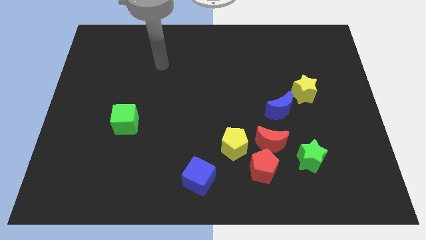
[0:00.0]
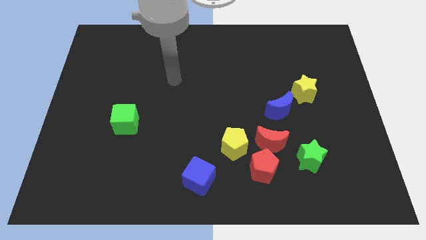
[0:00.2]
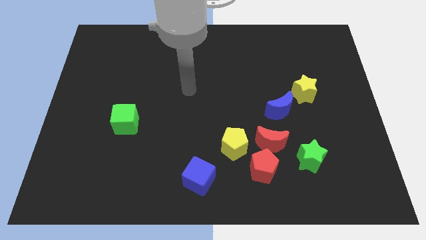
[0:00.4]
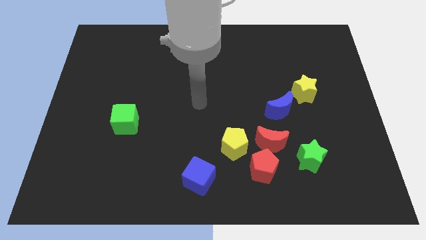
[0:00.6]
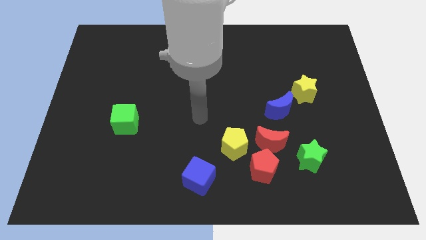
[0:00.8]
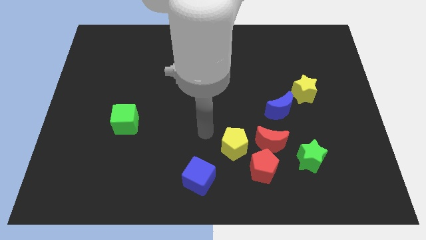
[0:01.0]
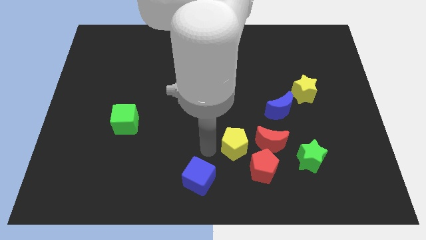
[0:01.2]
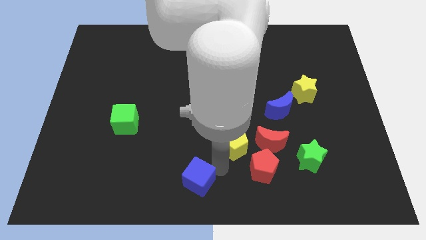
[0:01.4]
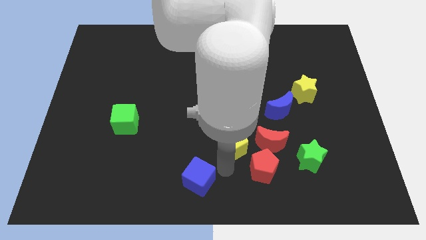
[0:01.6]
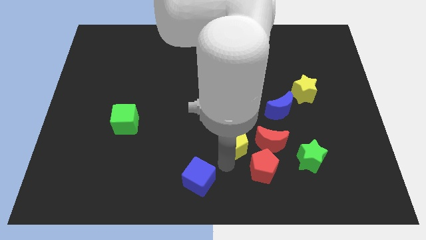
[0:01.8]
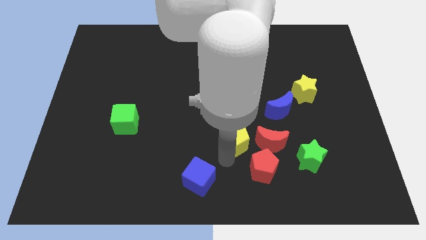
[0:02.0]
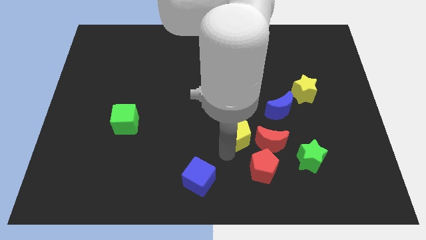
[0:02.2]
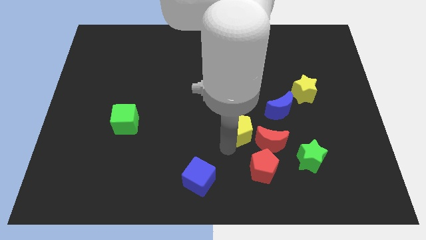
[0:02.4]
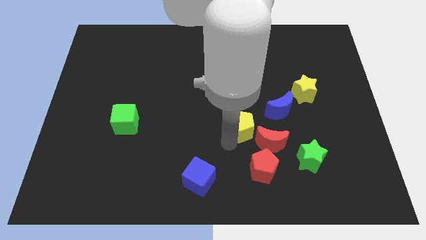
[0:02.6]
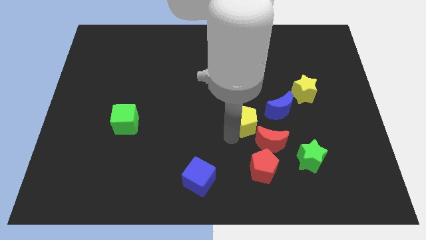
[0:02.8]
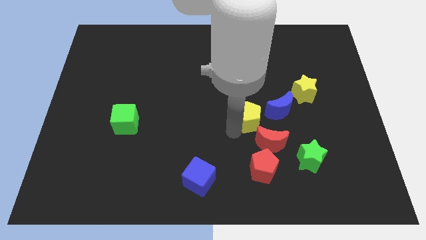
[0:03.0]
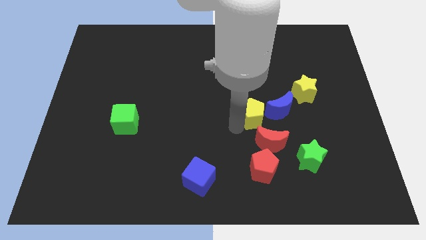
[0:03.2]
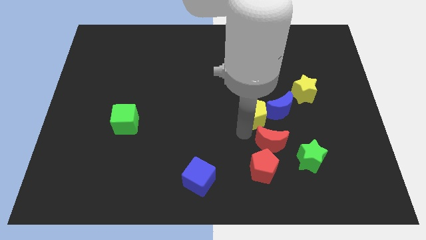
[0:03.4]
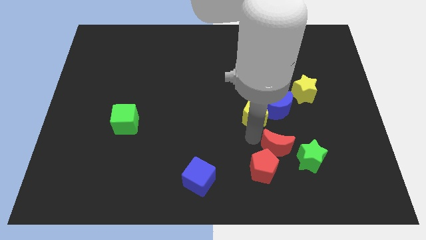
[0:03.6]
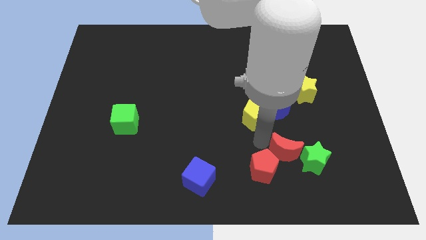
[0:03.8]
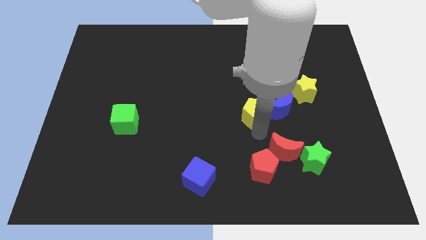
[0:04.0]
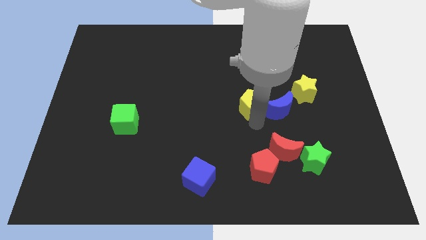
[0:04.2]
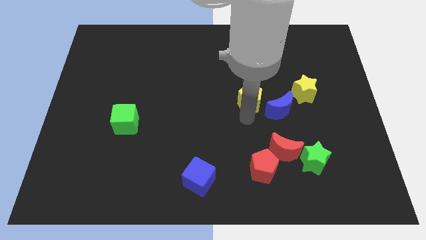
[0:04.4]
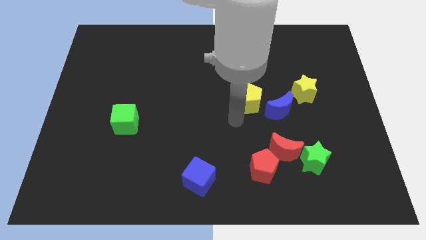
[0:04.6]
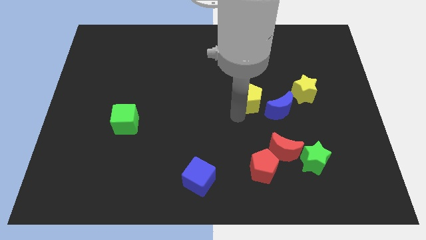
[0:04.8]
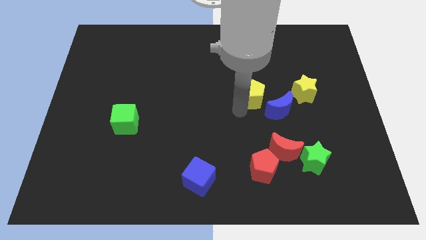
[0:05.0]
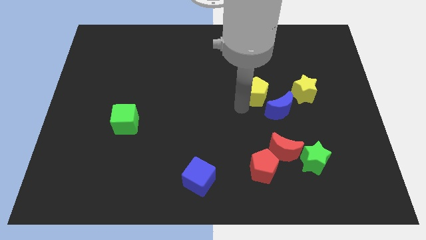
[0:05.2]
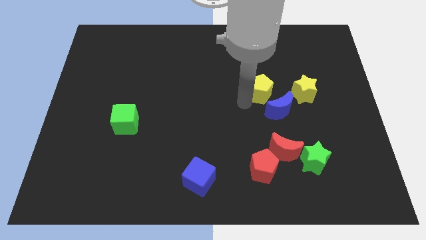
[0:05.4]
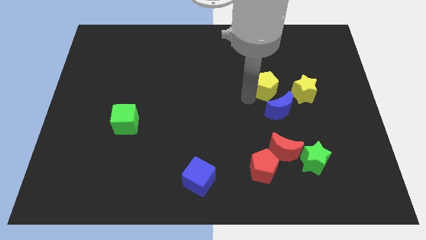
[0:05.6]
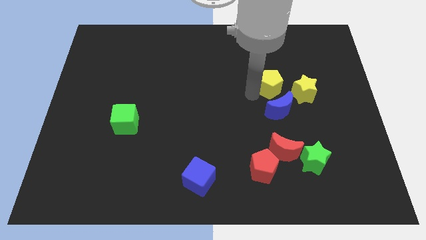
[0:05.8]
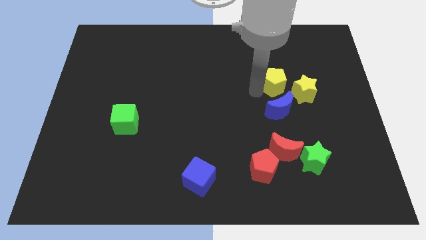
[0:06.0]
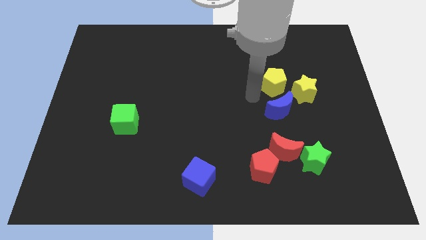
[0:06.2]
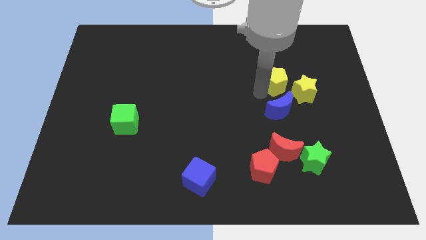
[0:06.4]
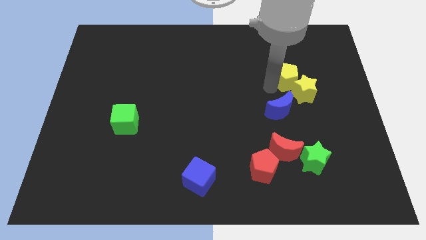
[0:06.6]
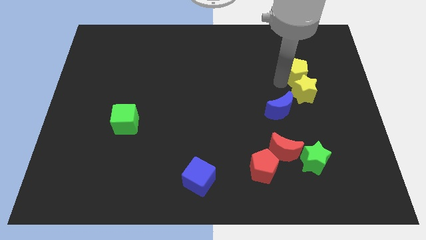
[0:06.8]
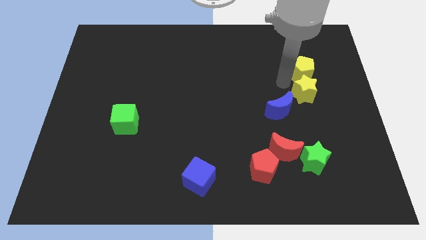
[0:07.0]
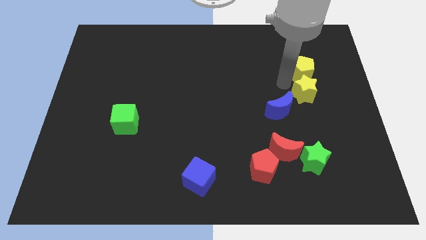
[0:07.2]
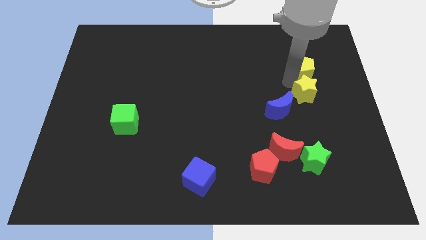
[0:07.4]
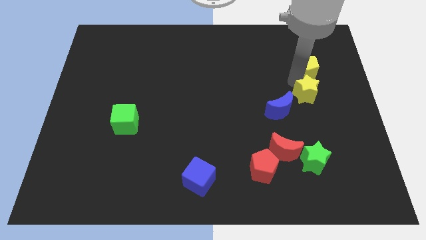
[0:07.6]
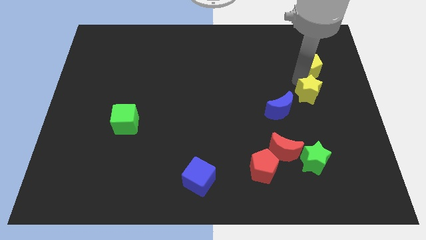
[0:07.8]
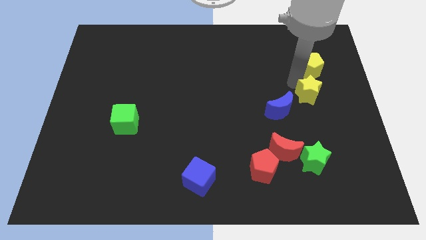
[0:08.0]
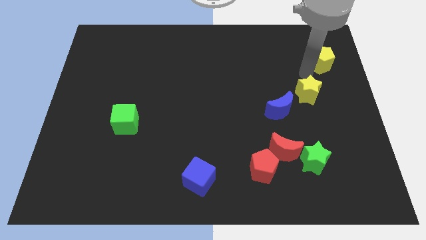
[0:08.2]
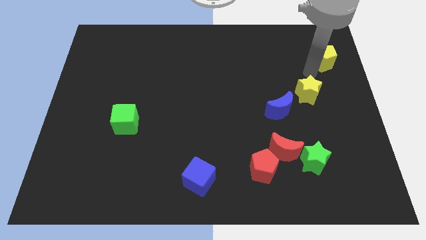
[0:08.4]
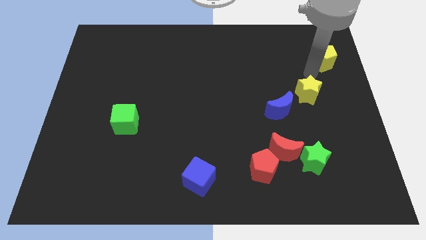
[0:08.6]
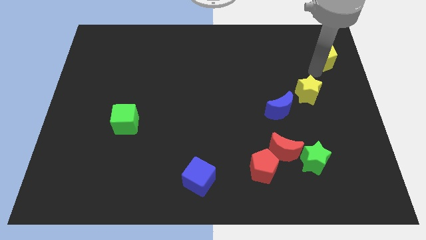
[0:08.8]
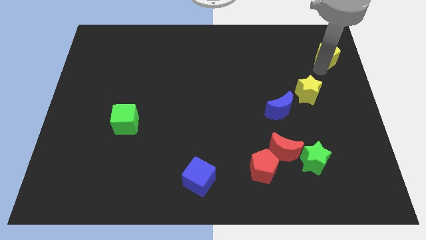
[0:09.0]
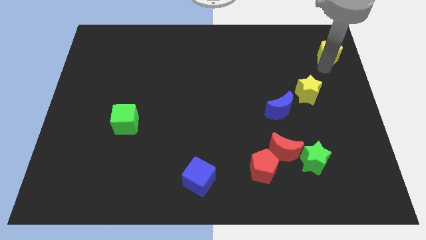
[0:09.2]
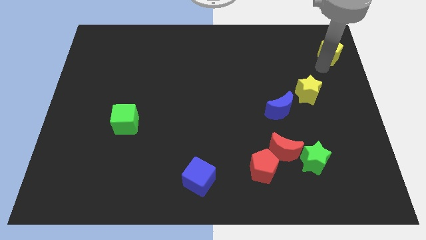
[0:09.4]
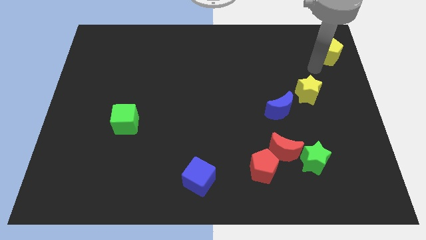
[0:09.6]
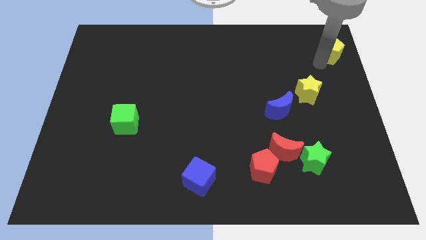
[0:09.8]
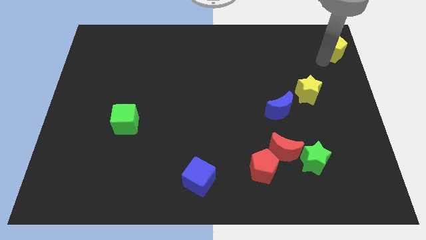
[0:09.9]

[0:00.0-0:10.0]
push the yellow pentagon to the top right

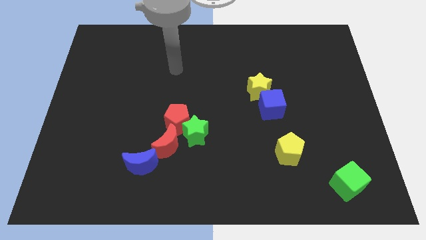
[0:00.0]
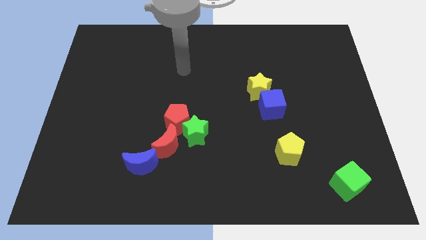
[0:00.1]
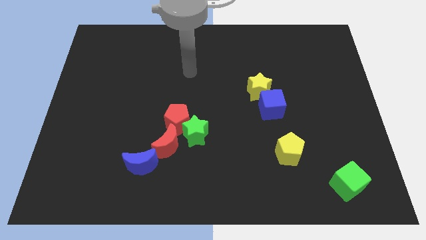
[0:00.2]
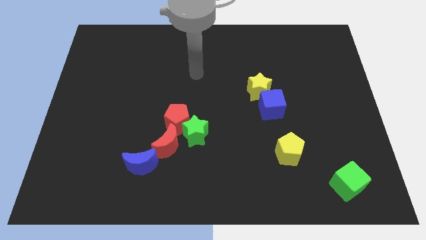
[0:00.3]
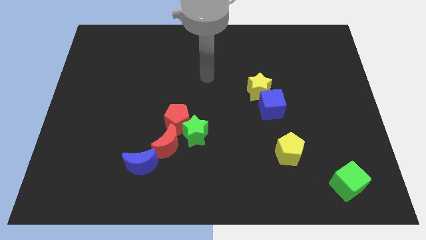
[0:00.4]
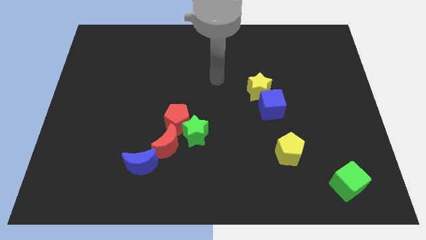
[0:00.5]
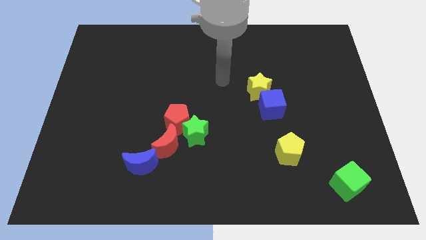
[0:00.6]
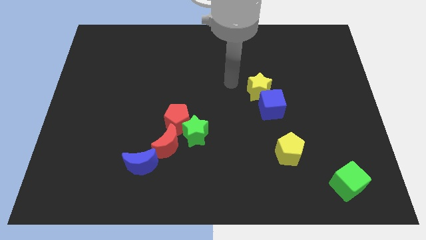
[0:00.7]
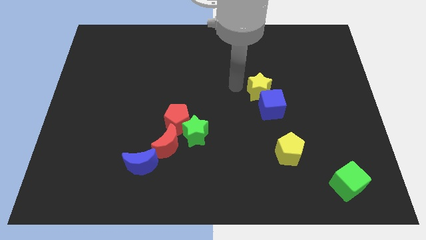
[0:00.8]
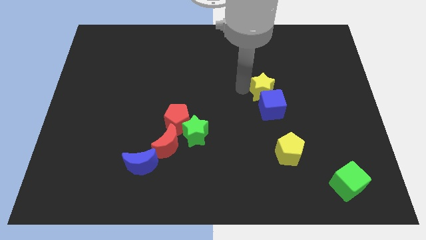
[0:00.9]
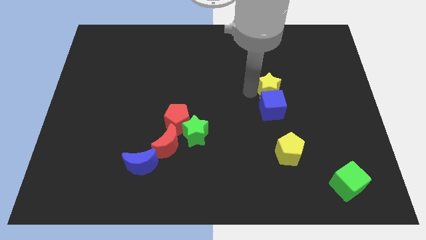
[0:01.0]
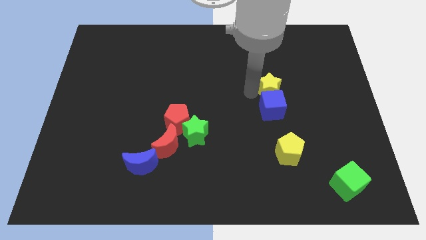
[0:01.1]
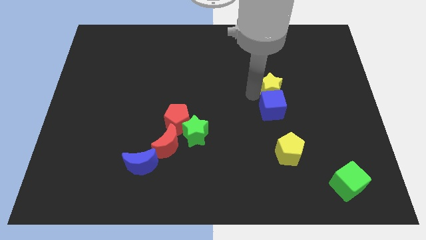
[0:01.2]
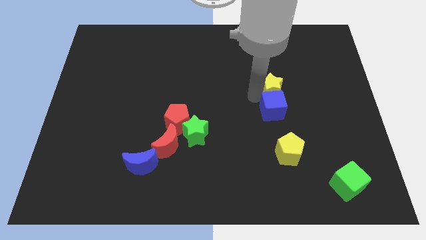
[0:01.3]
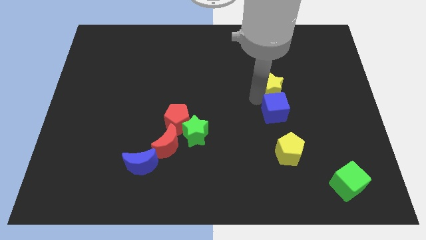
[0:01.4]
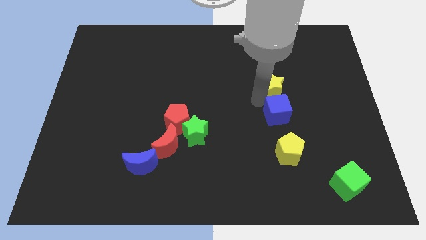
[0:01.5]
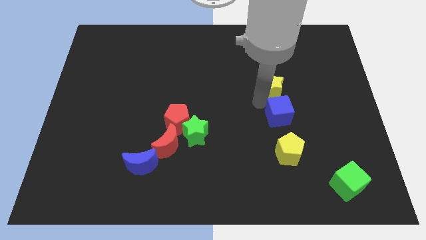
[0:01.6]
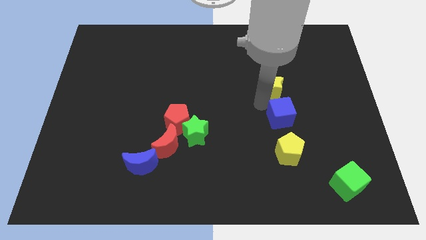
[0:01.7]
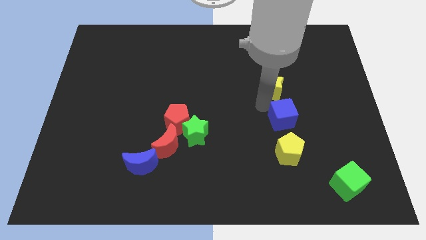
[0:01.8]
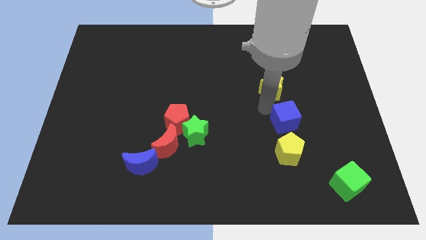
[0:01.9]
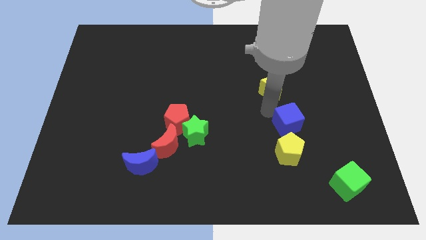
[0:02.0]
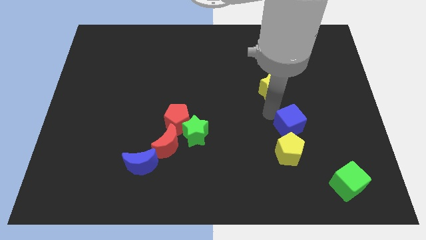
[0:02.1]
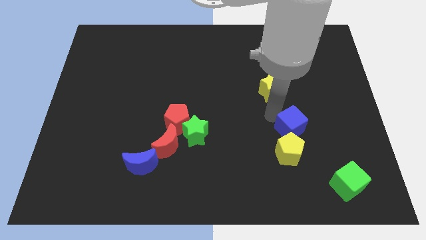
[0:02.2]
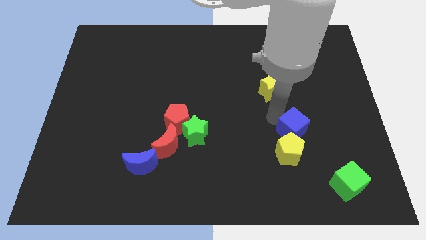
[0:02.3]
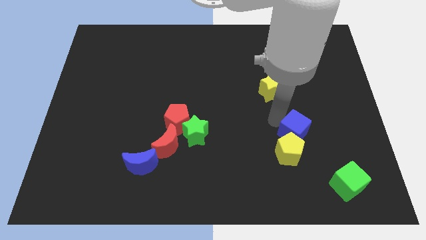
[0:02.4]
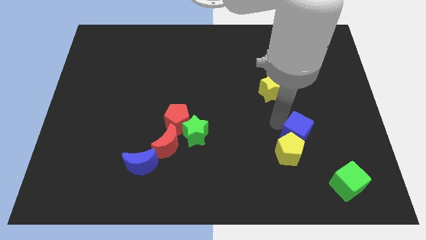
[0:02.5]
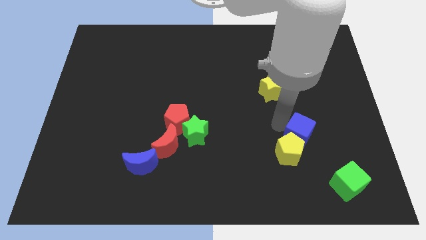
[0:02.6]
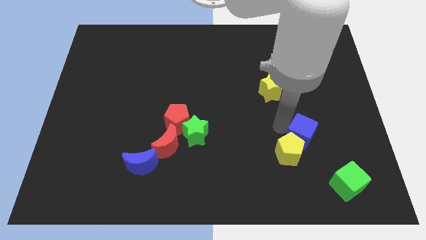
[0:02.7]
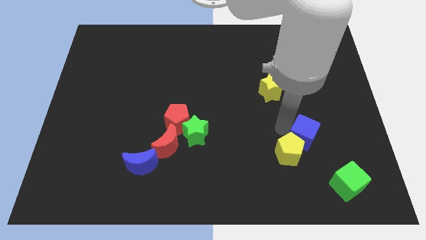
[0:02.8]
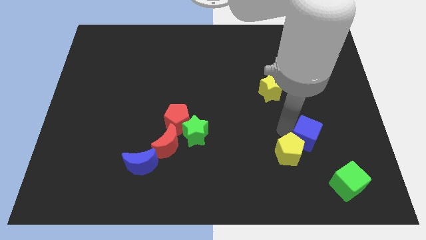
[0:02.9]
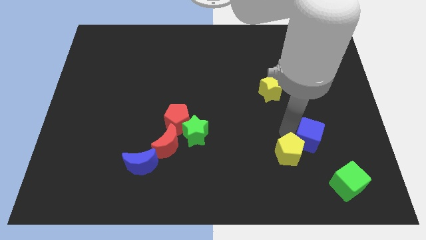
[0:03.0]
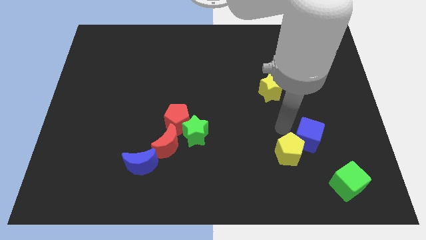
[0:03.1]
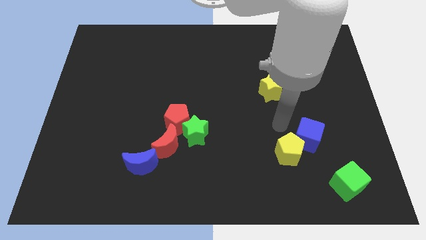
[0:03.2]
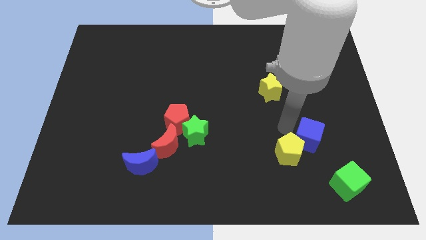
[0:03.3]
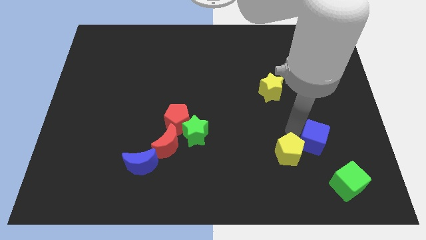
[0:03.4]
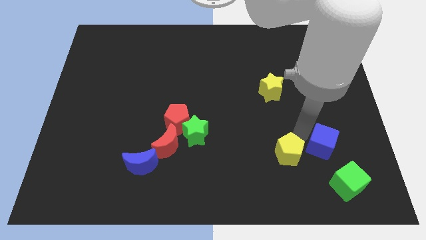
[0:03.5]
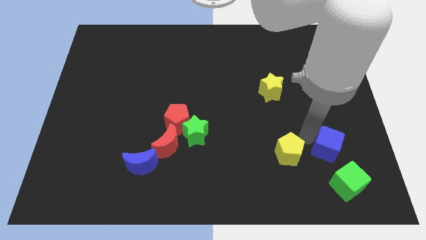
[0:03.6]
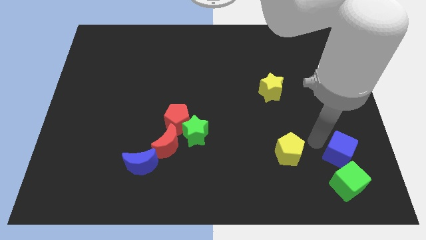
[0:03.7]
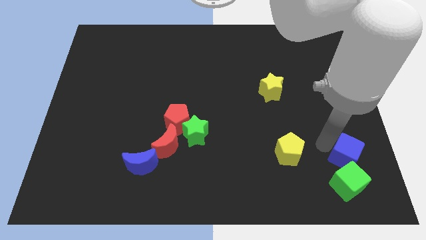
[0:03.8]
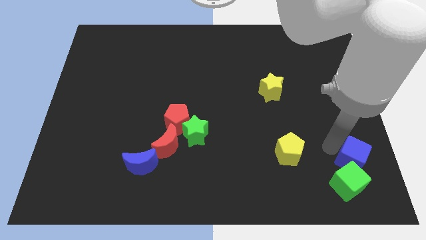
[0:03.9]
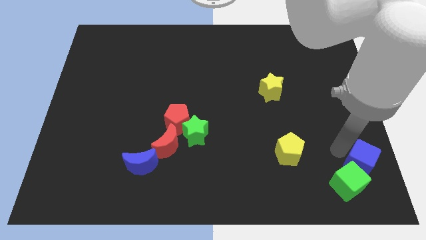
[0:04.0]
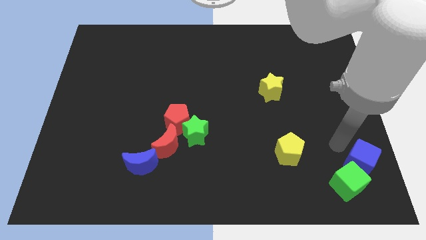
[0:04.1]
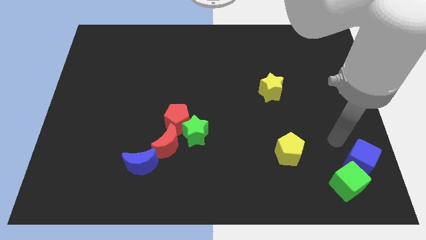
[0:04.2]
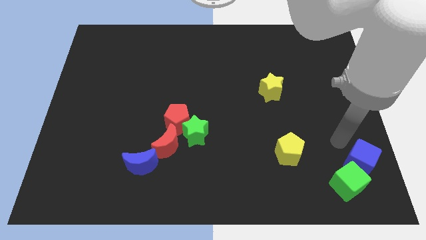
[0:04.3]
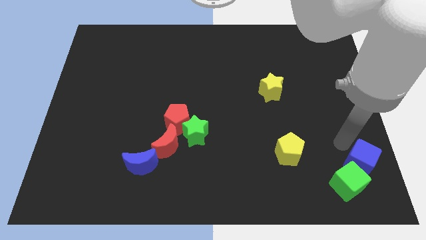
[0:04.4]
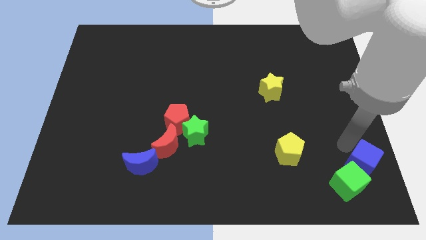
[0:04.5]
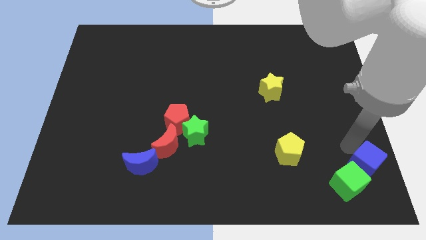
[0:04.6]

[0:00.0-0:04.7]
push the blue cube to the bottom right corner
